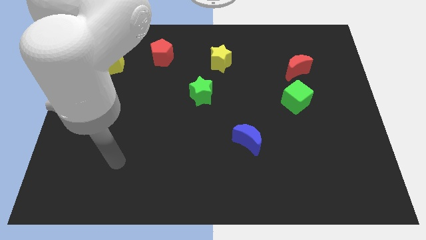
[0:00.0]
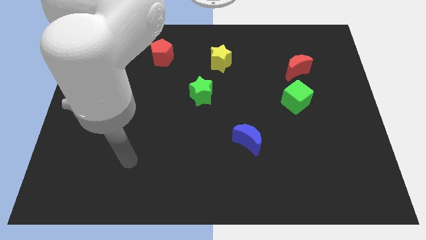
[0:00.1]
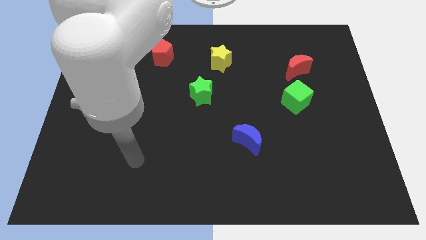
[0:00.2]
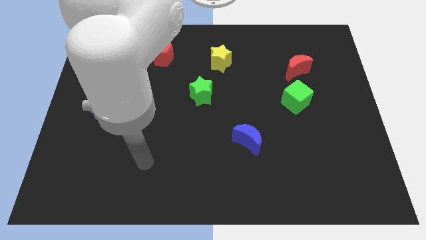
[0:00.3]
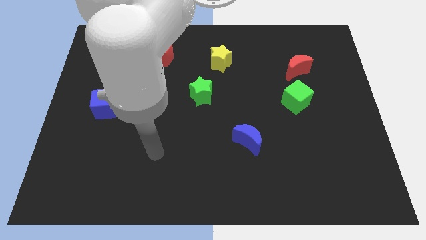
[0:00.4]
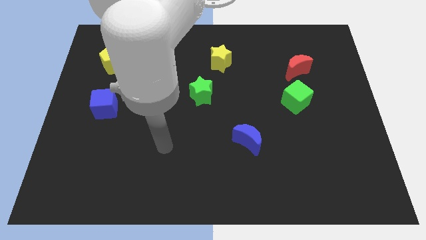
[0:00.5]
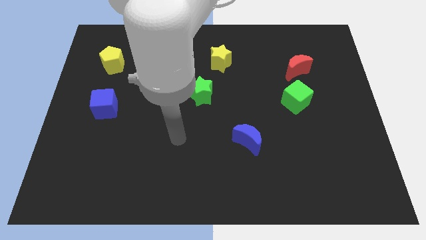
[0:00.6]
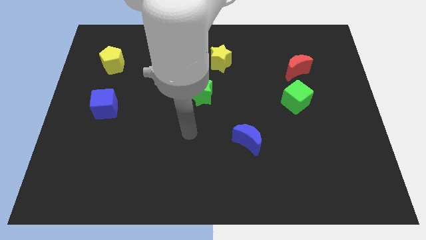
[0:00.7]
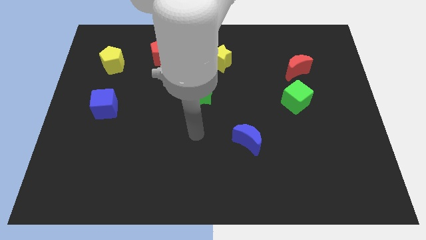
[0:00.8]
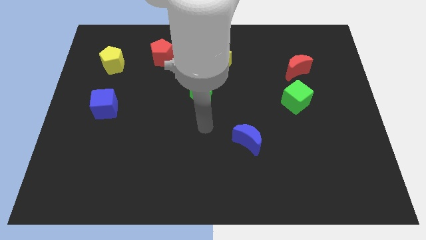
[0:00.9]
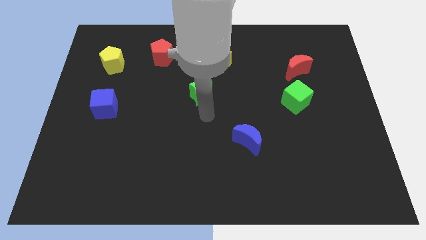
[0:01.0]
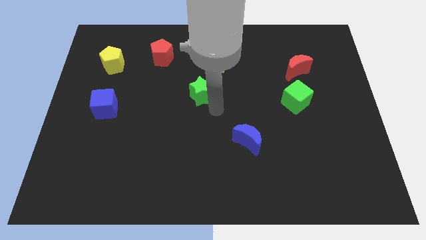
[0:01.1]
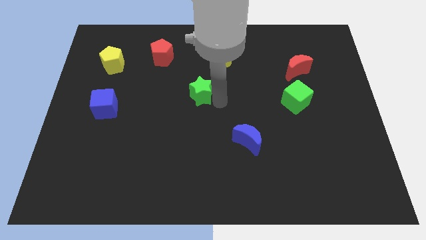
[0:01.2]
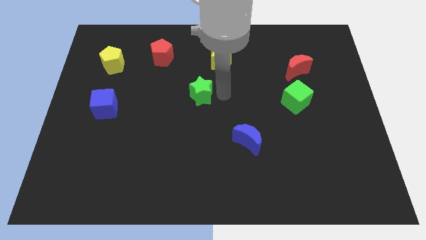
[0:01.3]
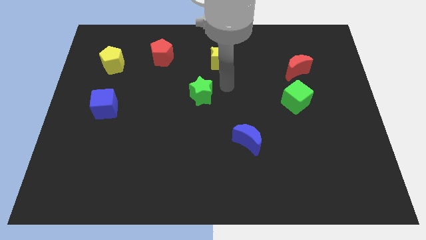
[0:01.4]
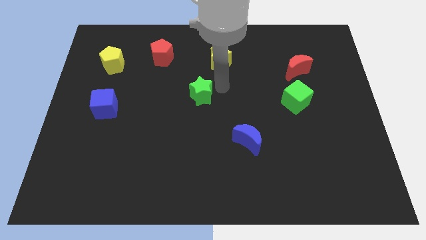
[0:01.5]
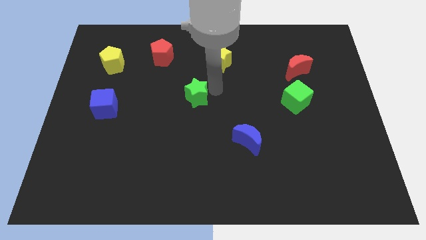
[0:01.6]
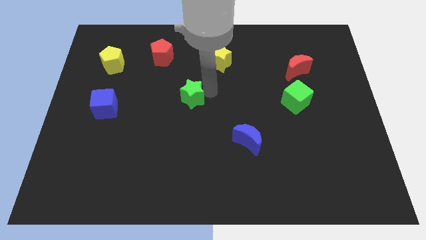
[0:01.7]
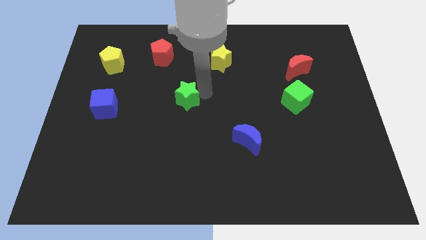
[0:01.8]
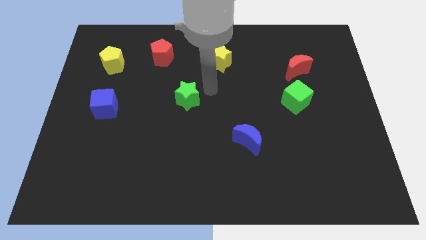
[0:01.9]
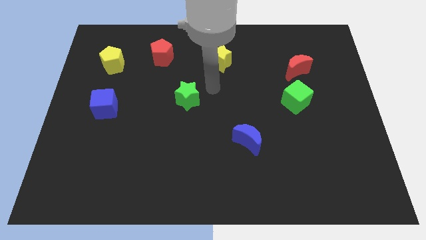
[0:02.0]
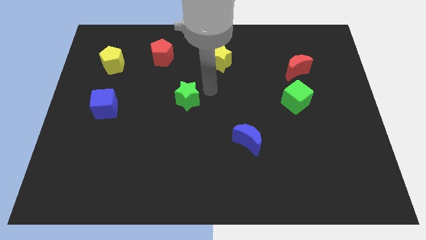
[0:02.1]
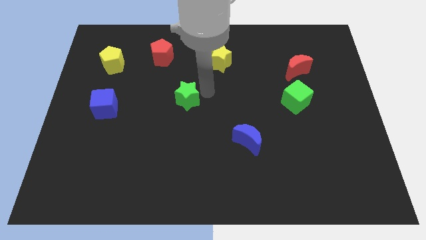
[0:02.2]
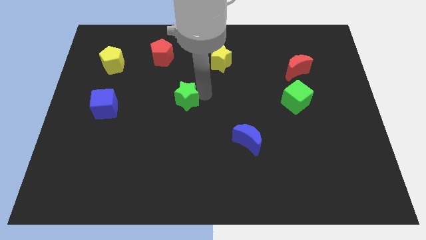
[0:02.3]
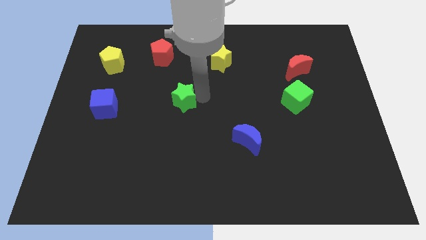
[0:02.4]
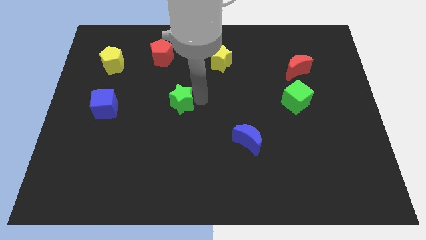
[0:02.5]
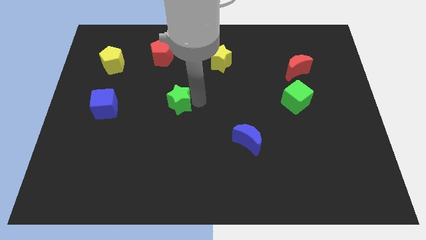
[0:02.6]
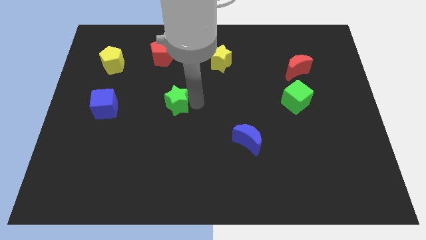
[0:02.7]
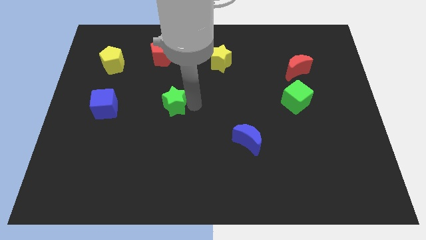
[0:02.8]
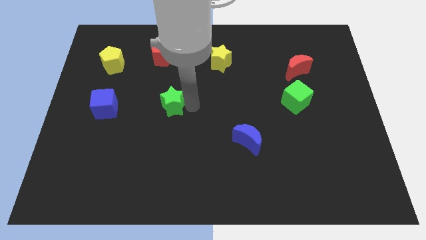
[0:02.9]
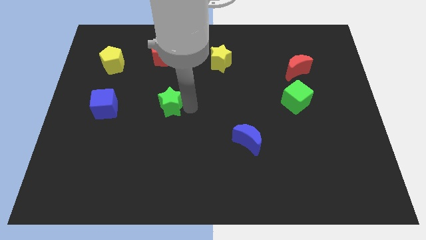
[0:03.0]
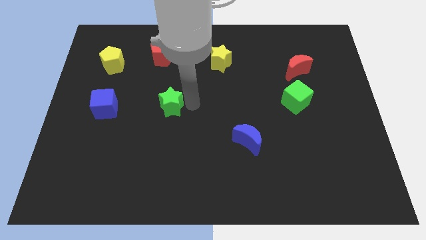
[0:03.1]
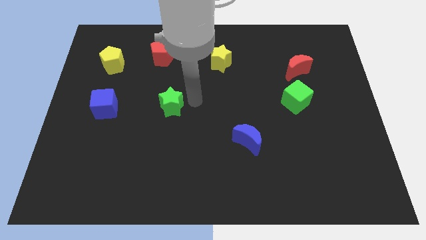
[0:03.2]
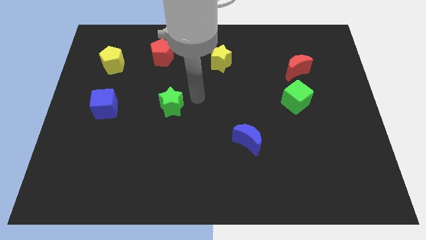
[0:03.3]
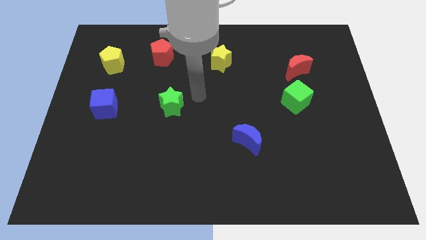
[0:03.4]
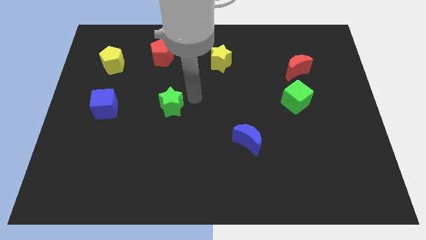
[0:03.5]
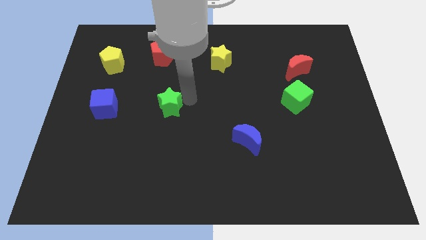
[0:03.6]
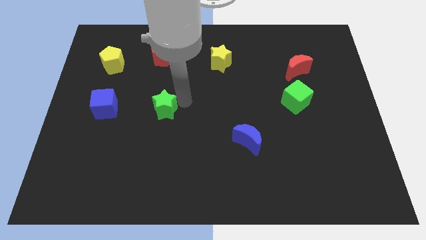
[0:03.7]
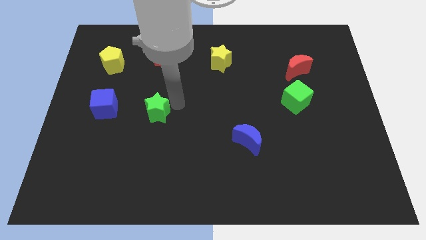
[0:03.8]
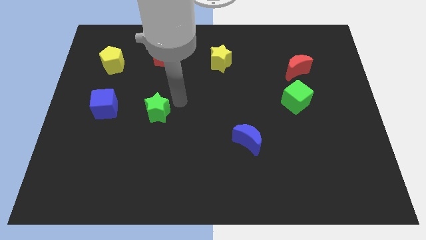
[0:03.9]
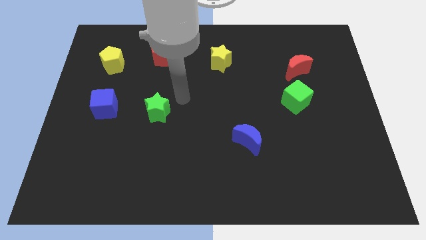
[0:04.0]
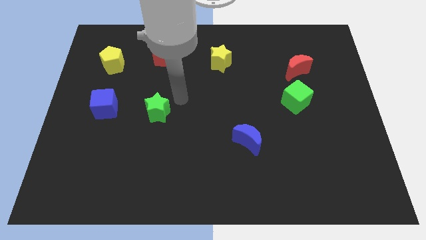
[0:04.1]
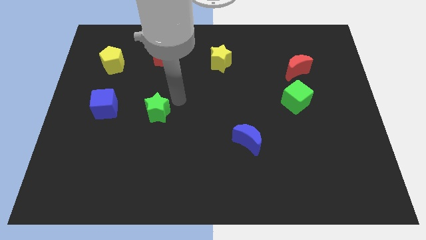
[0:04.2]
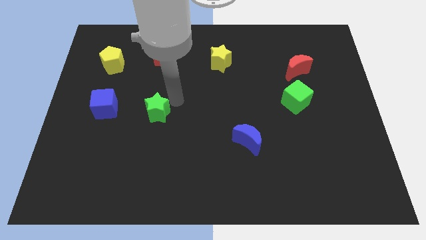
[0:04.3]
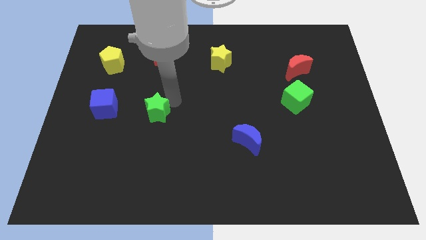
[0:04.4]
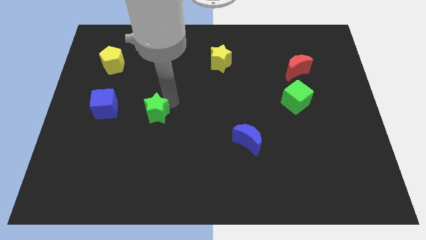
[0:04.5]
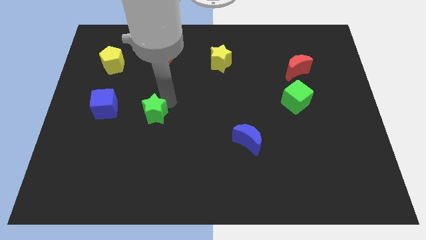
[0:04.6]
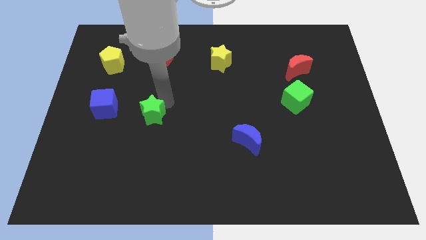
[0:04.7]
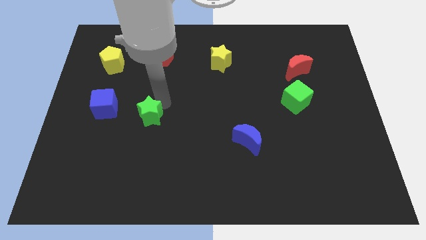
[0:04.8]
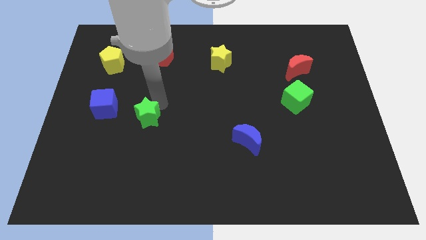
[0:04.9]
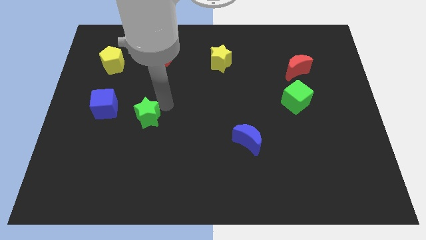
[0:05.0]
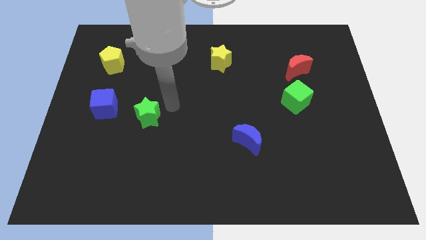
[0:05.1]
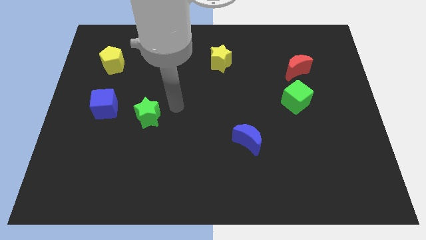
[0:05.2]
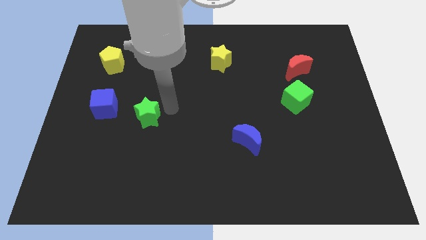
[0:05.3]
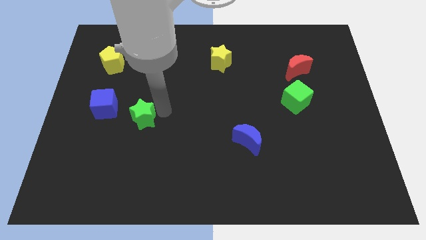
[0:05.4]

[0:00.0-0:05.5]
slide the green star to the bottom right of the blue cube

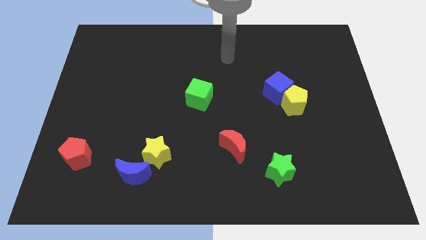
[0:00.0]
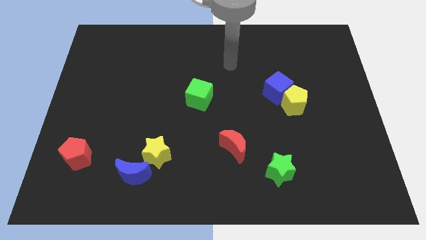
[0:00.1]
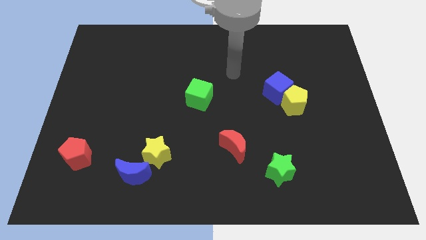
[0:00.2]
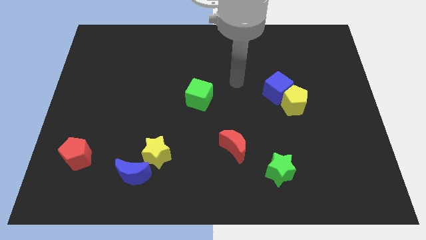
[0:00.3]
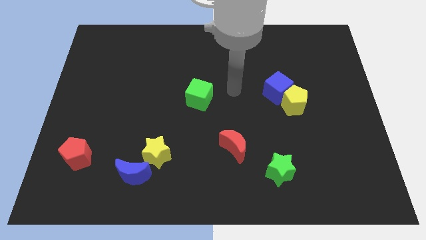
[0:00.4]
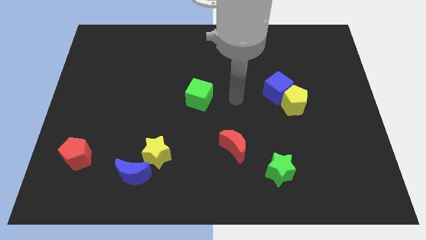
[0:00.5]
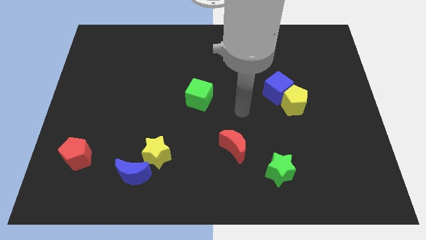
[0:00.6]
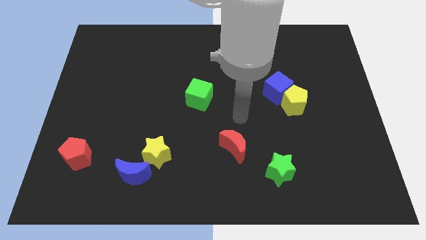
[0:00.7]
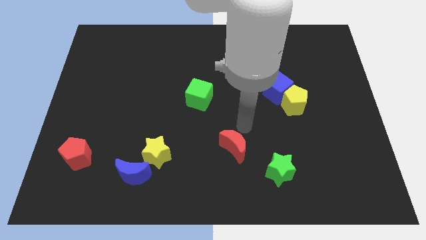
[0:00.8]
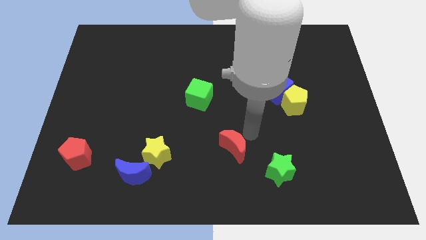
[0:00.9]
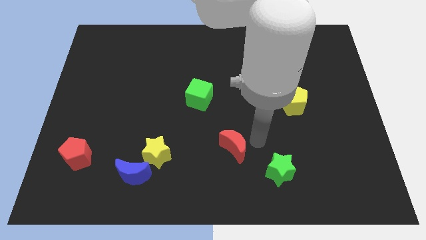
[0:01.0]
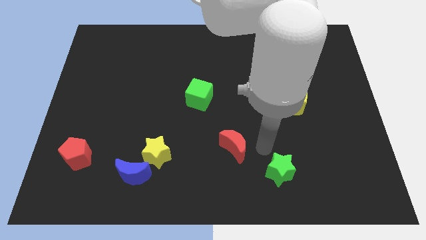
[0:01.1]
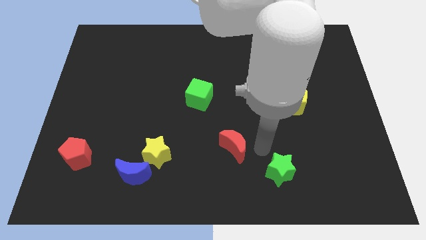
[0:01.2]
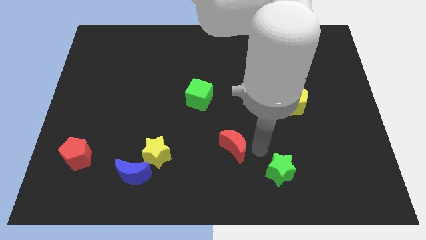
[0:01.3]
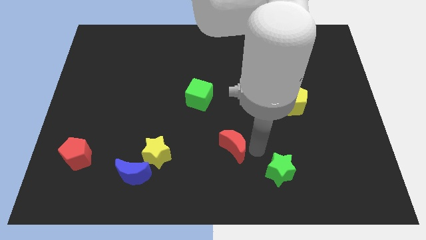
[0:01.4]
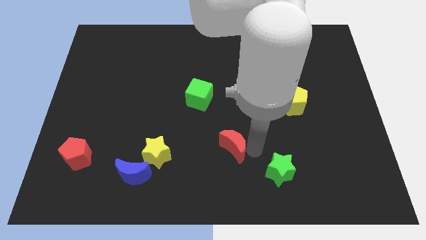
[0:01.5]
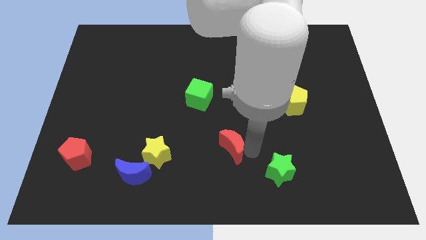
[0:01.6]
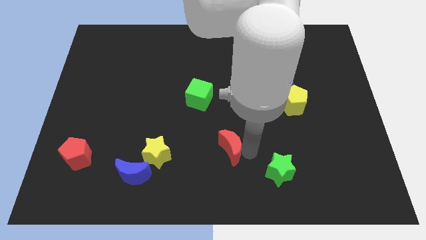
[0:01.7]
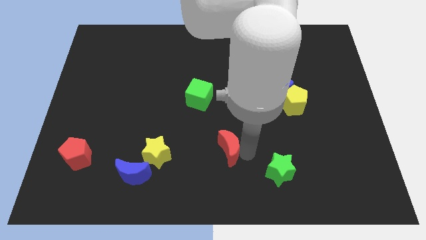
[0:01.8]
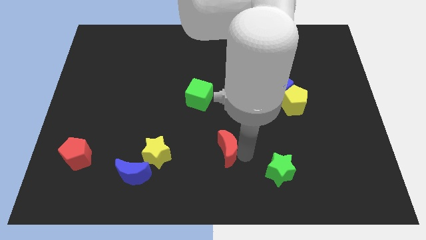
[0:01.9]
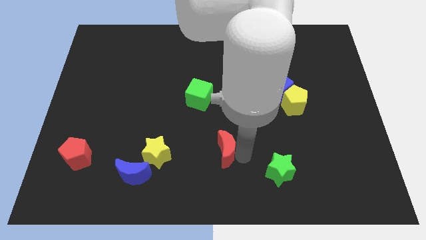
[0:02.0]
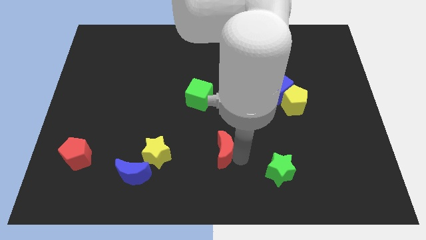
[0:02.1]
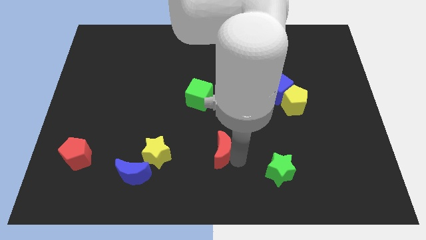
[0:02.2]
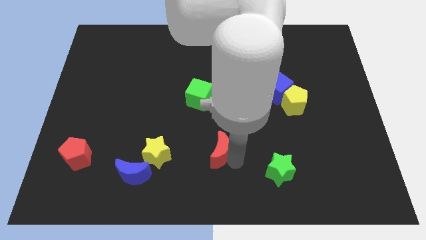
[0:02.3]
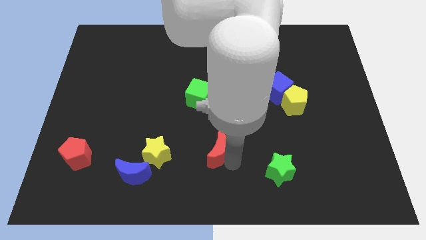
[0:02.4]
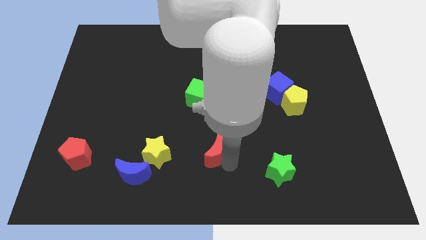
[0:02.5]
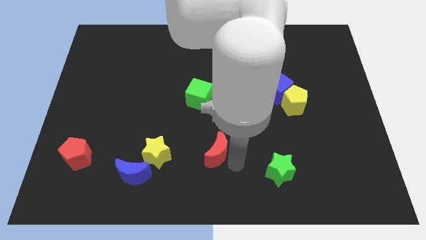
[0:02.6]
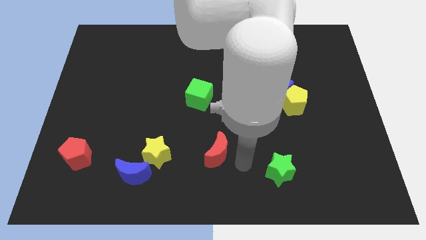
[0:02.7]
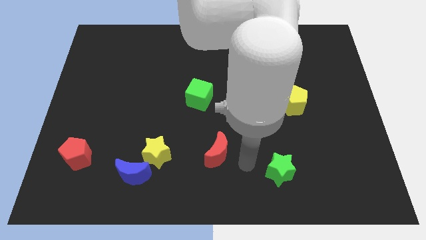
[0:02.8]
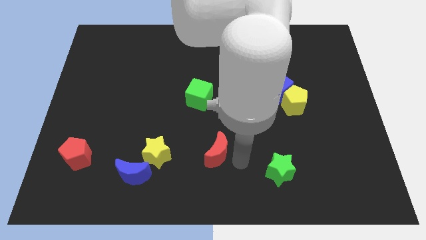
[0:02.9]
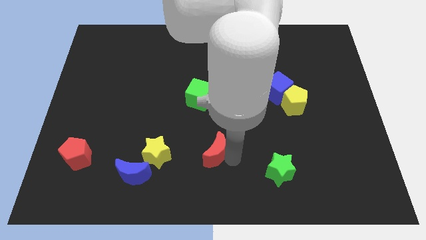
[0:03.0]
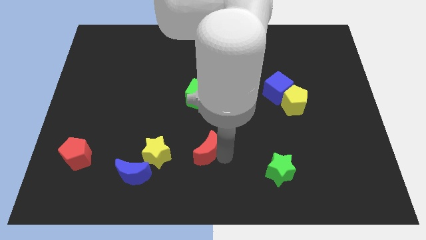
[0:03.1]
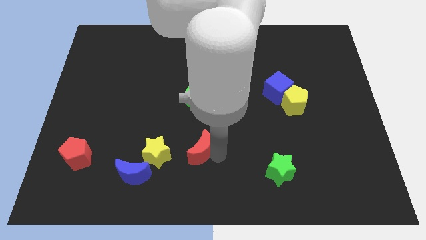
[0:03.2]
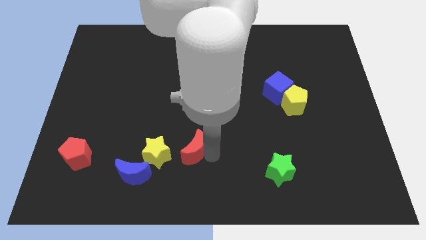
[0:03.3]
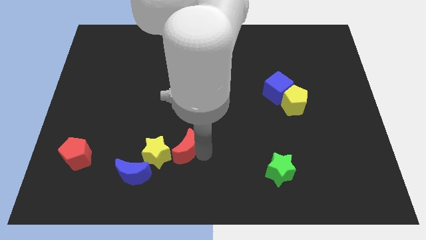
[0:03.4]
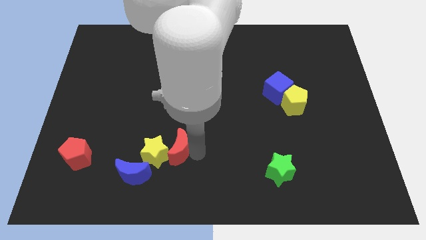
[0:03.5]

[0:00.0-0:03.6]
push the red moon to the top right of the blue moon
